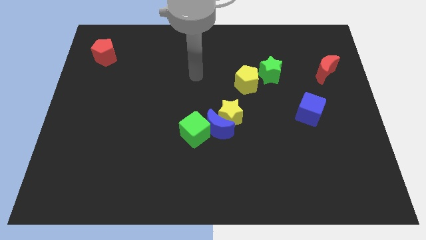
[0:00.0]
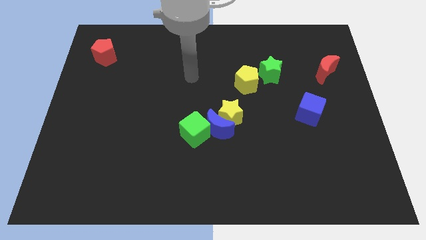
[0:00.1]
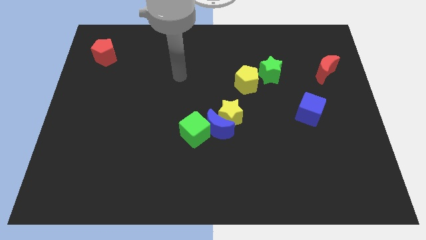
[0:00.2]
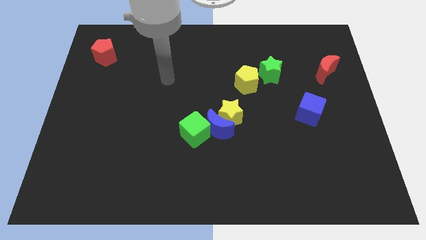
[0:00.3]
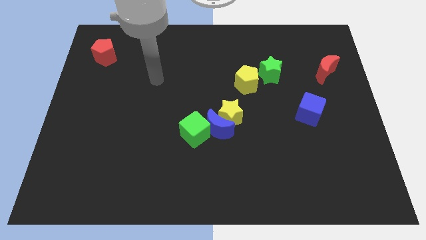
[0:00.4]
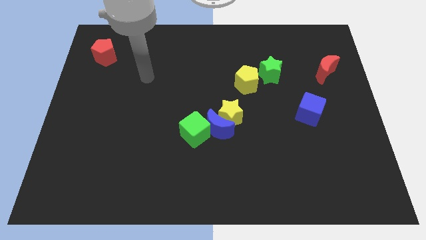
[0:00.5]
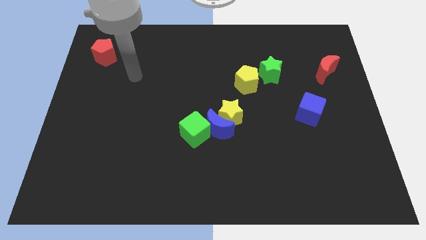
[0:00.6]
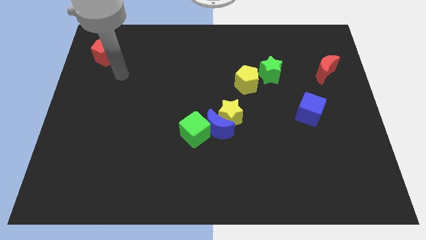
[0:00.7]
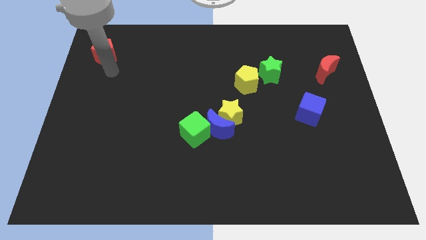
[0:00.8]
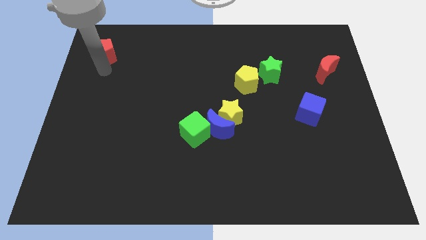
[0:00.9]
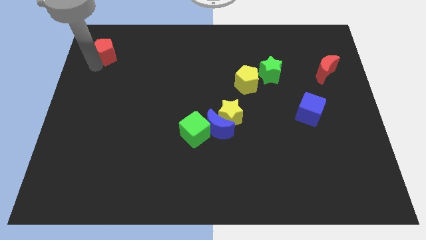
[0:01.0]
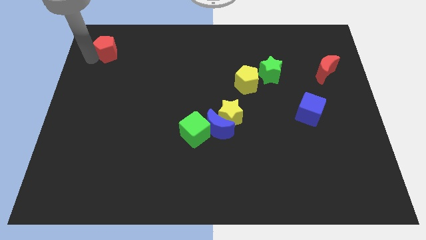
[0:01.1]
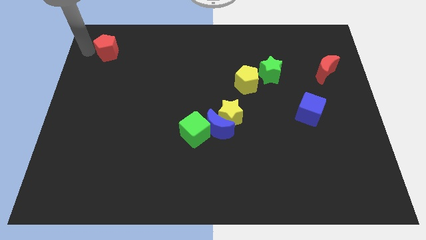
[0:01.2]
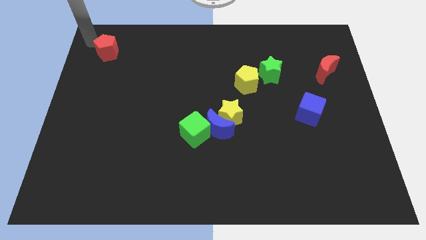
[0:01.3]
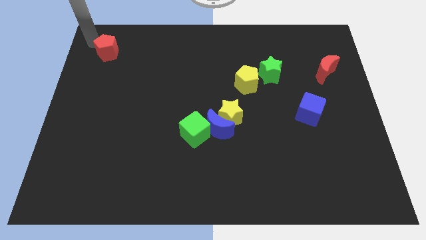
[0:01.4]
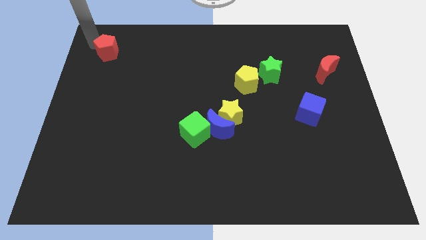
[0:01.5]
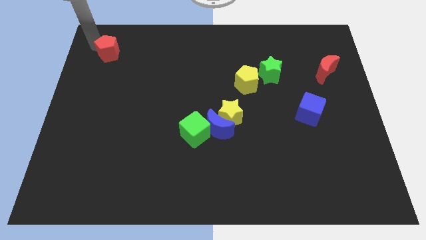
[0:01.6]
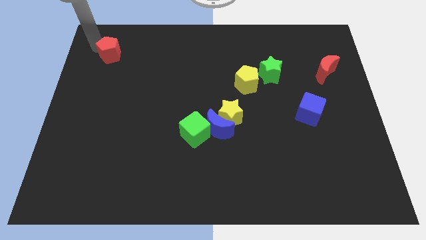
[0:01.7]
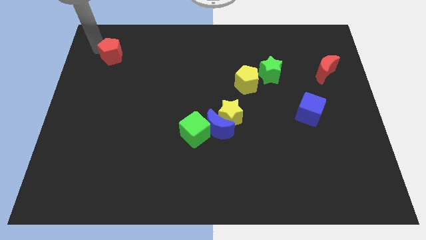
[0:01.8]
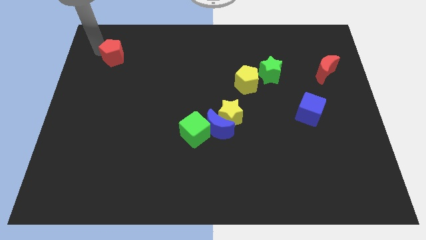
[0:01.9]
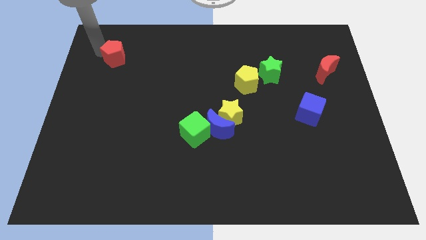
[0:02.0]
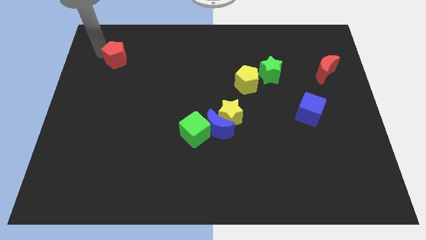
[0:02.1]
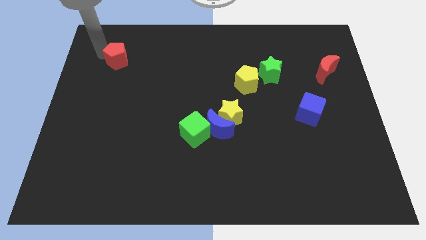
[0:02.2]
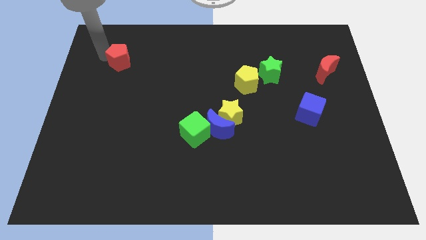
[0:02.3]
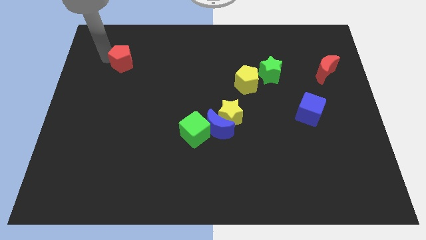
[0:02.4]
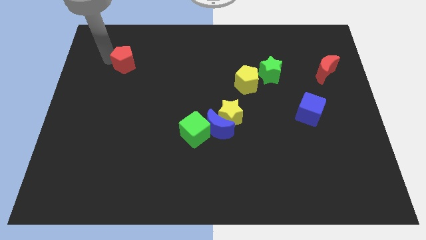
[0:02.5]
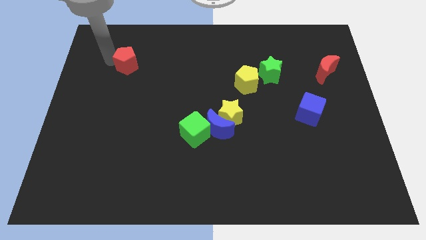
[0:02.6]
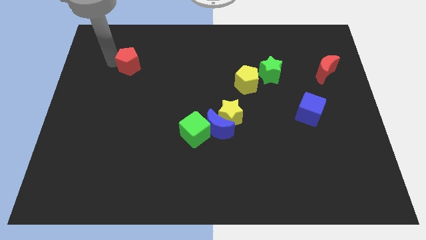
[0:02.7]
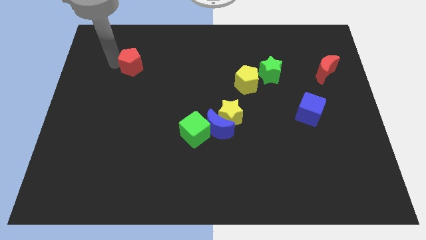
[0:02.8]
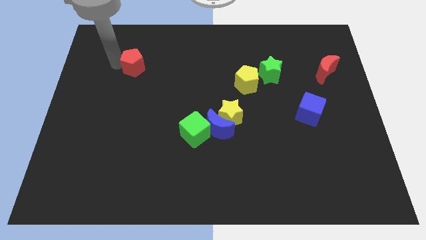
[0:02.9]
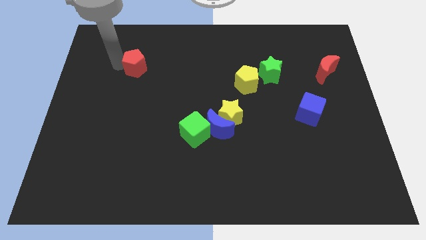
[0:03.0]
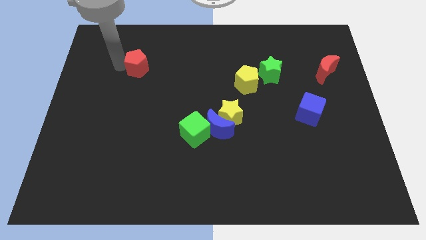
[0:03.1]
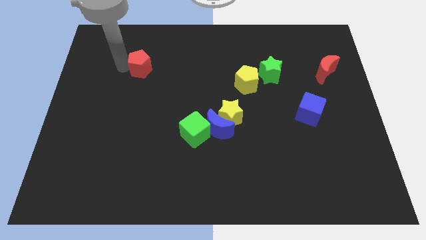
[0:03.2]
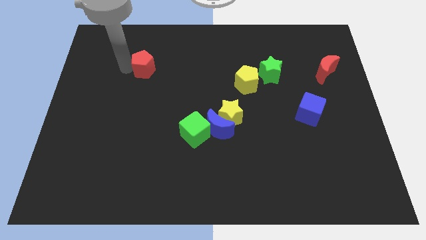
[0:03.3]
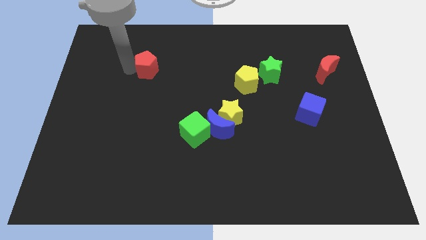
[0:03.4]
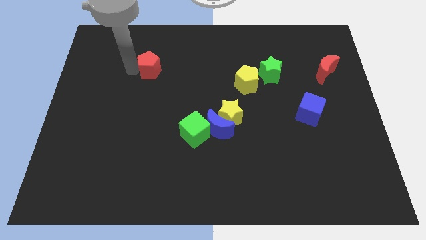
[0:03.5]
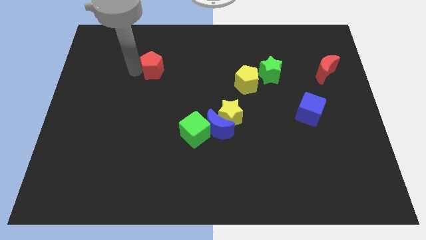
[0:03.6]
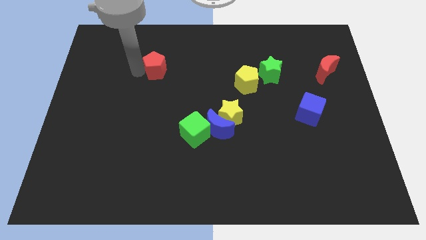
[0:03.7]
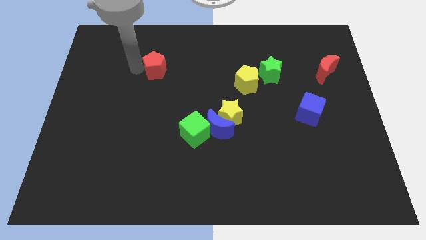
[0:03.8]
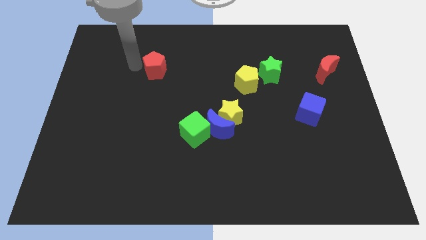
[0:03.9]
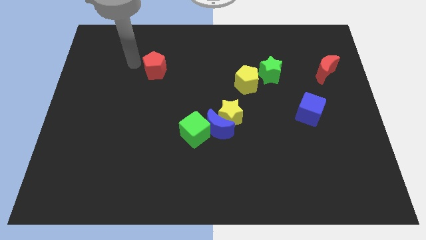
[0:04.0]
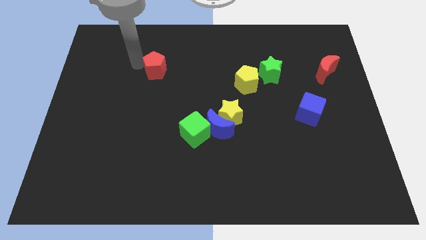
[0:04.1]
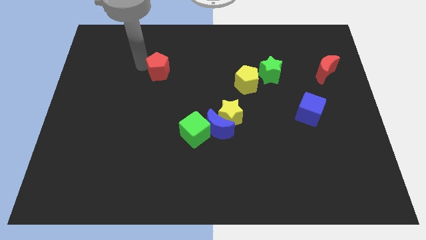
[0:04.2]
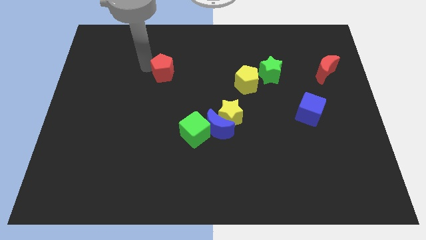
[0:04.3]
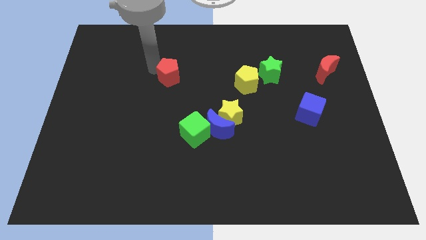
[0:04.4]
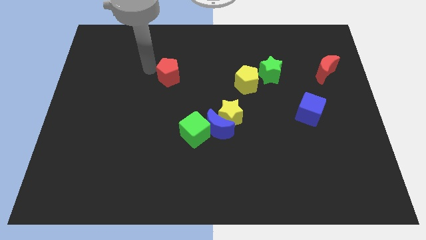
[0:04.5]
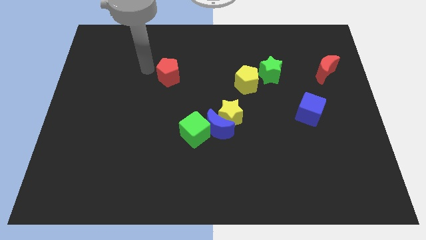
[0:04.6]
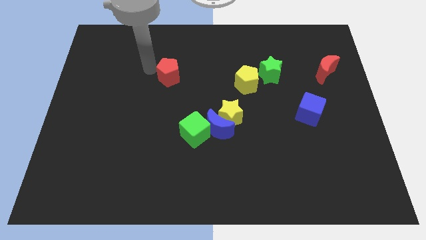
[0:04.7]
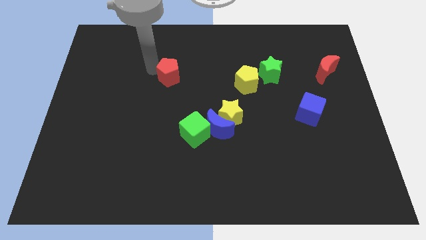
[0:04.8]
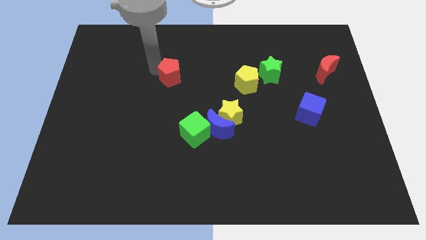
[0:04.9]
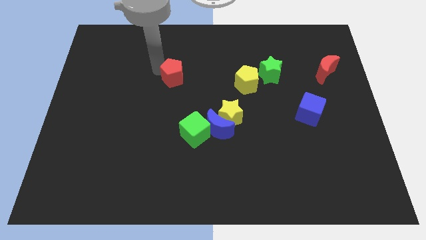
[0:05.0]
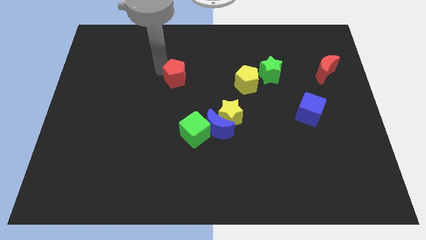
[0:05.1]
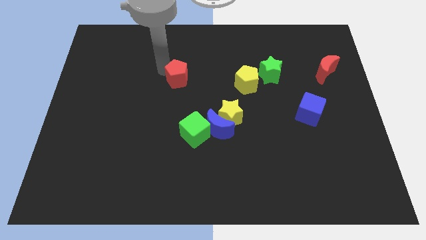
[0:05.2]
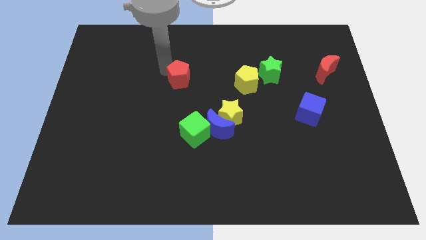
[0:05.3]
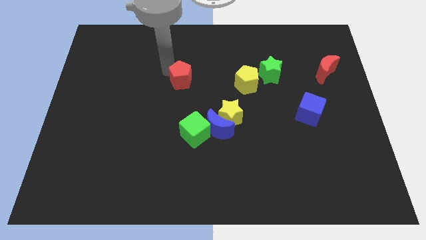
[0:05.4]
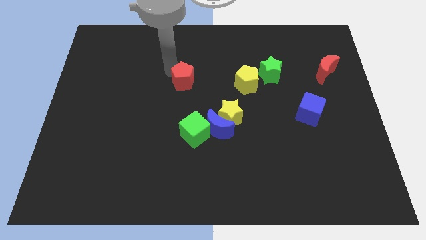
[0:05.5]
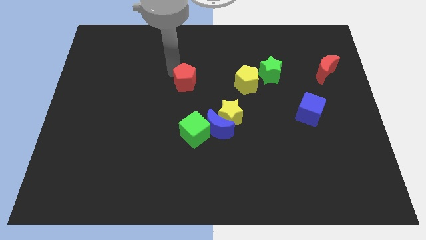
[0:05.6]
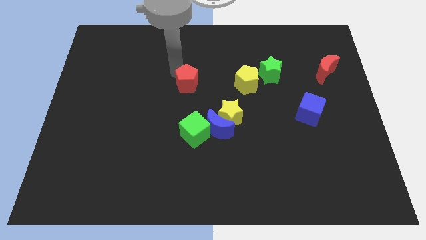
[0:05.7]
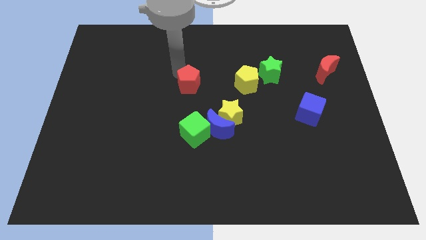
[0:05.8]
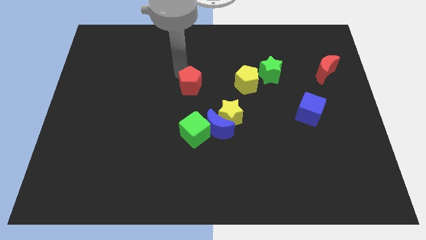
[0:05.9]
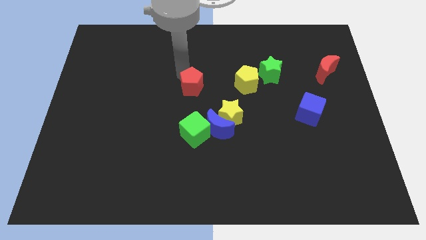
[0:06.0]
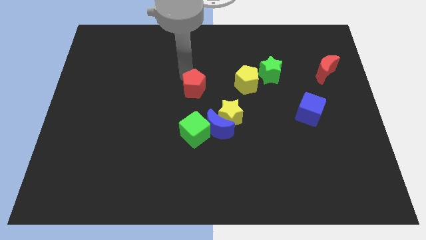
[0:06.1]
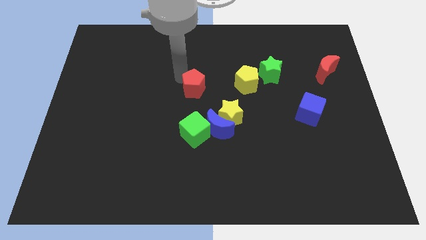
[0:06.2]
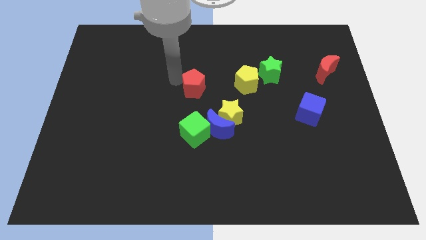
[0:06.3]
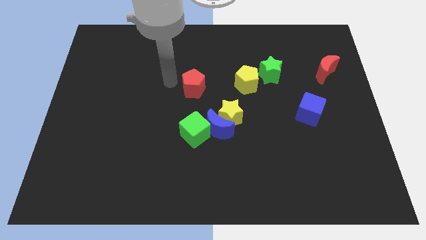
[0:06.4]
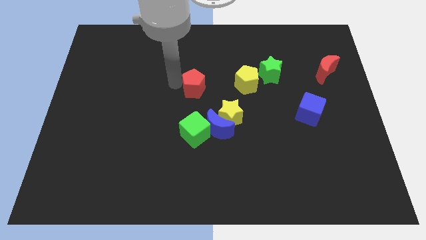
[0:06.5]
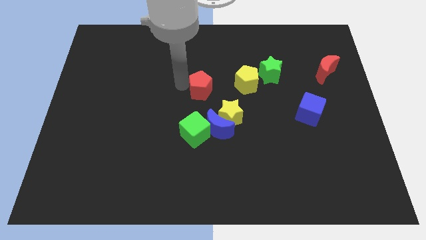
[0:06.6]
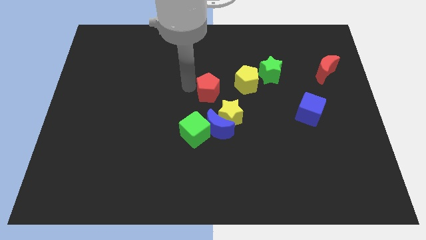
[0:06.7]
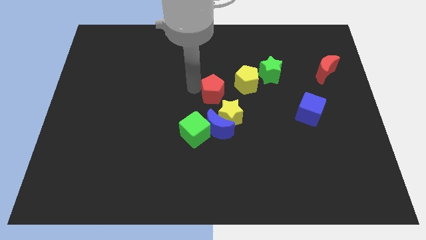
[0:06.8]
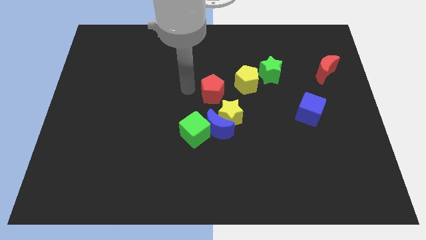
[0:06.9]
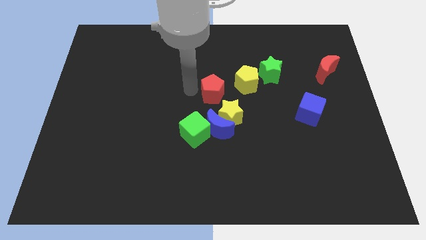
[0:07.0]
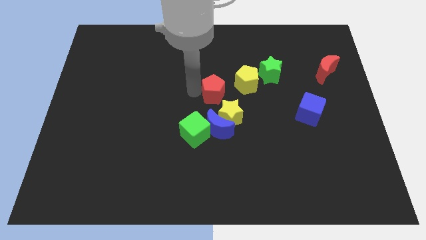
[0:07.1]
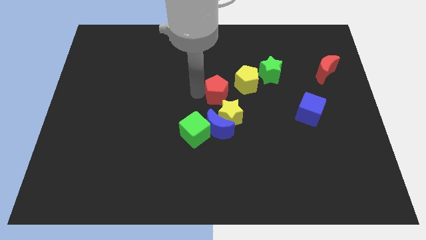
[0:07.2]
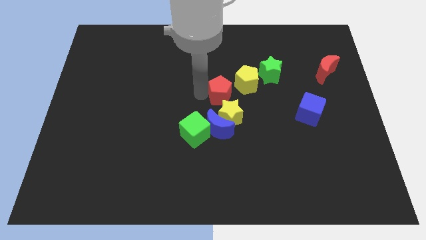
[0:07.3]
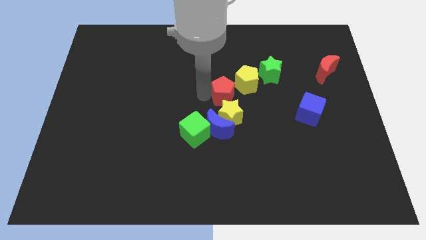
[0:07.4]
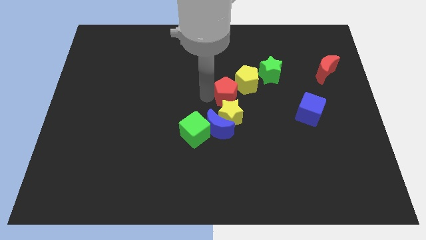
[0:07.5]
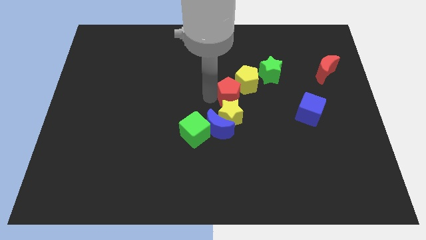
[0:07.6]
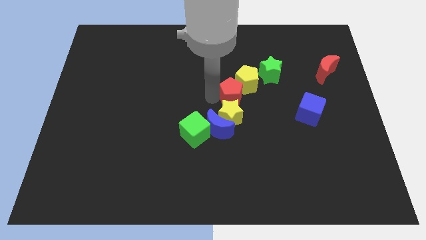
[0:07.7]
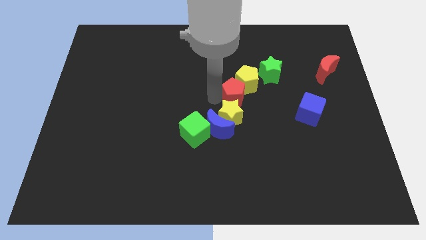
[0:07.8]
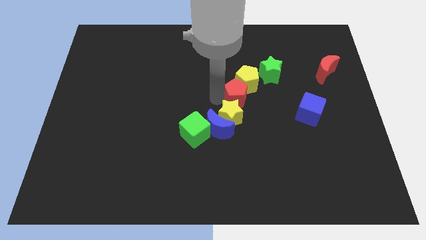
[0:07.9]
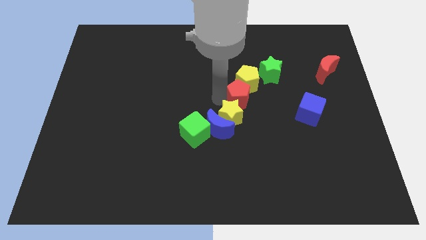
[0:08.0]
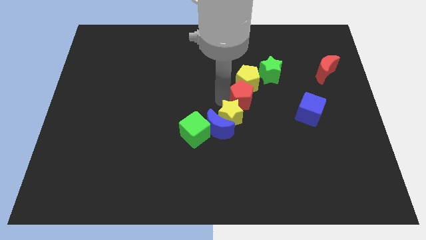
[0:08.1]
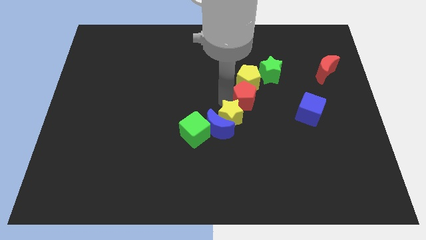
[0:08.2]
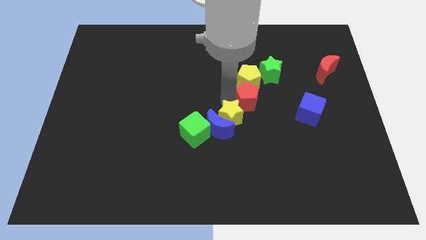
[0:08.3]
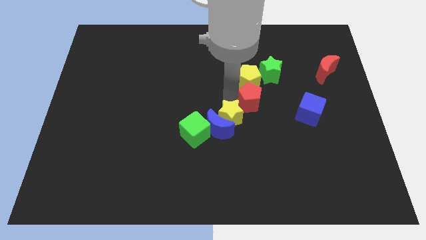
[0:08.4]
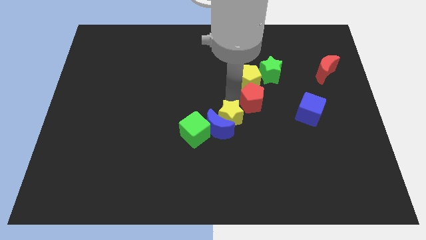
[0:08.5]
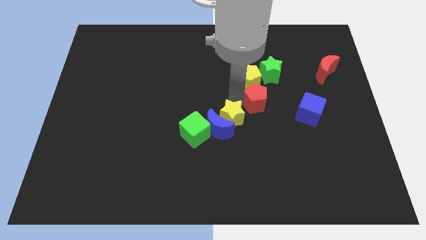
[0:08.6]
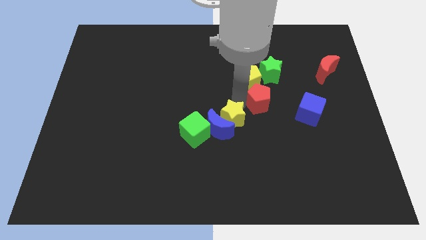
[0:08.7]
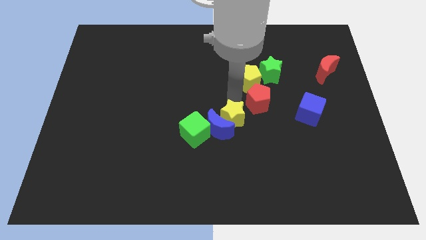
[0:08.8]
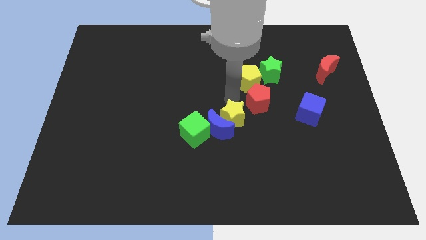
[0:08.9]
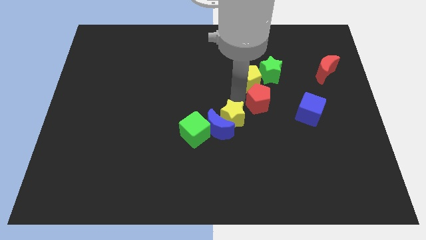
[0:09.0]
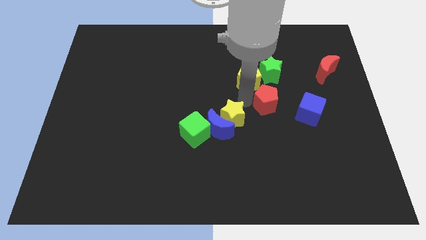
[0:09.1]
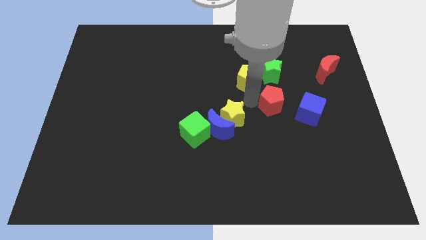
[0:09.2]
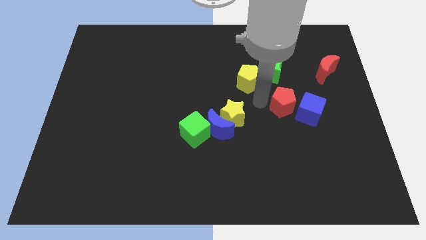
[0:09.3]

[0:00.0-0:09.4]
put the red pentagon close to the blue cube
